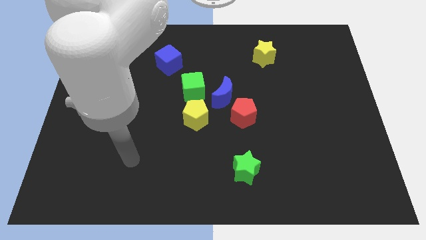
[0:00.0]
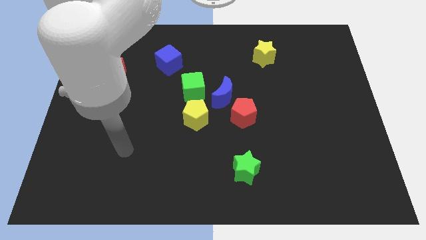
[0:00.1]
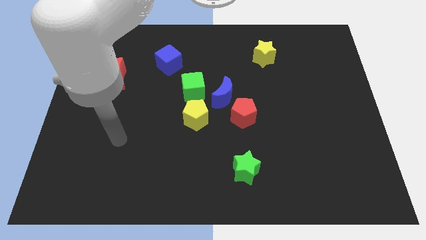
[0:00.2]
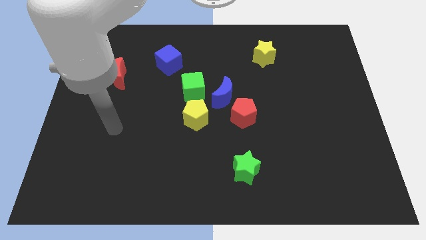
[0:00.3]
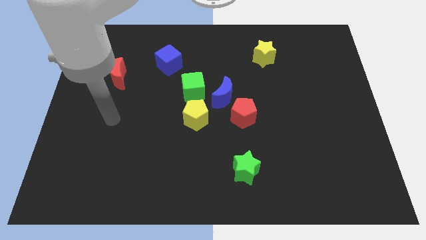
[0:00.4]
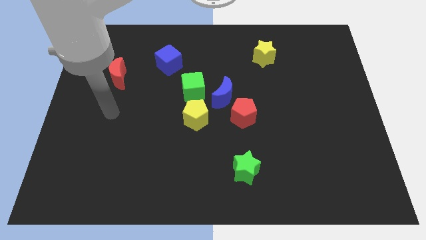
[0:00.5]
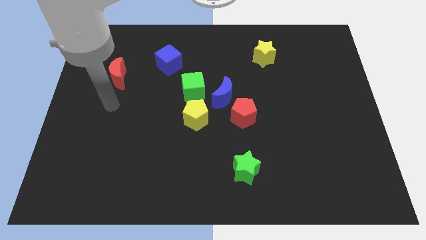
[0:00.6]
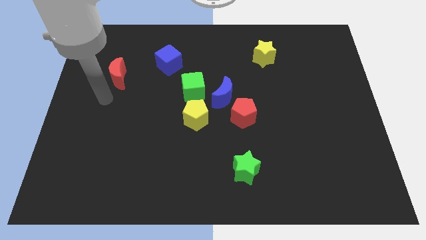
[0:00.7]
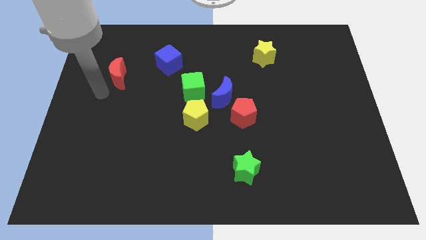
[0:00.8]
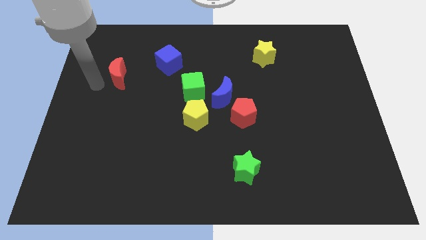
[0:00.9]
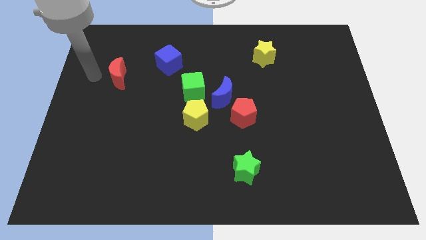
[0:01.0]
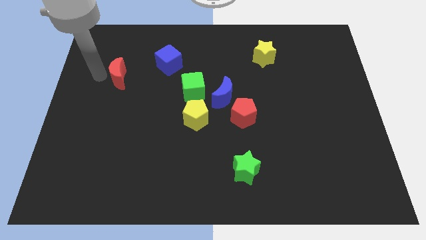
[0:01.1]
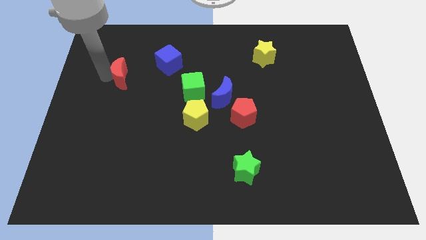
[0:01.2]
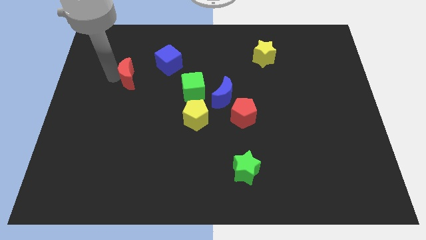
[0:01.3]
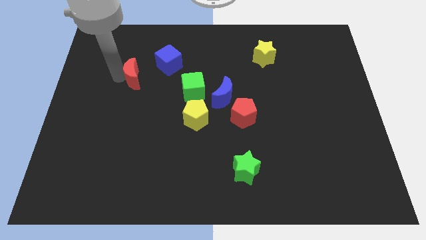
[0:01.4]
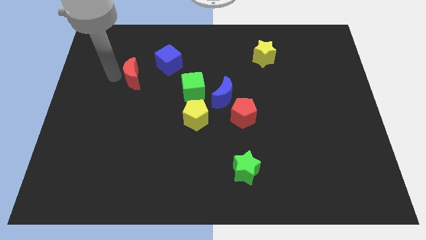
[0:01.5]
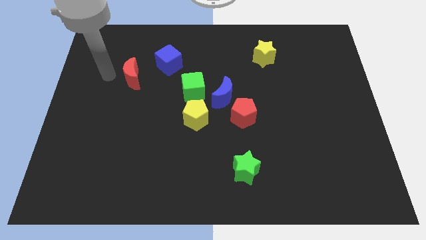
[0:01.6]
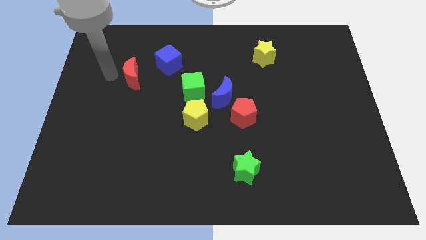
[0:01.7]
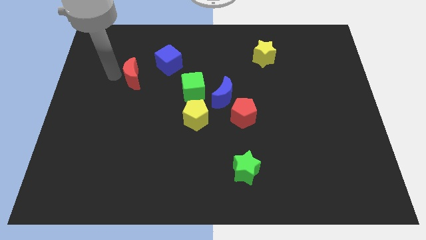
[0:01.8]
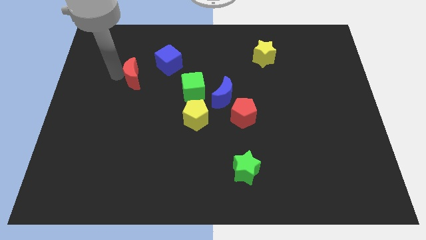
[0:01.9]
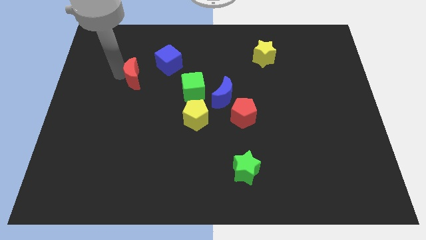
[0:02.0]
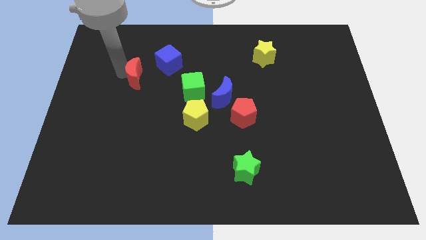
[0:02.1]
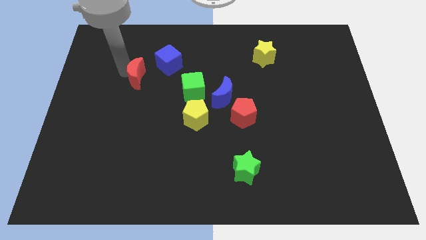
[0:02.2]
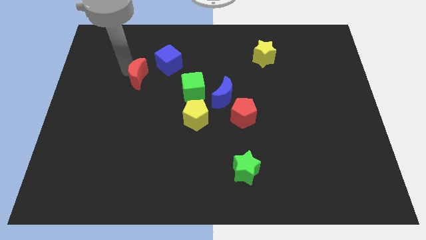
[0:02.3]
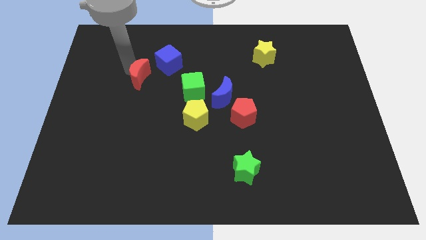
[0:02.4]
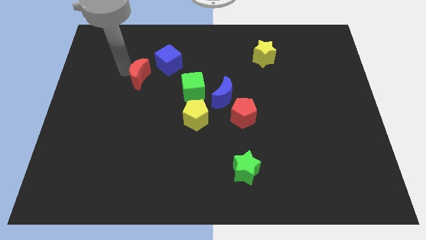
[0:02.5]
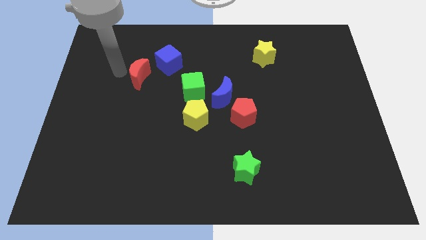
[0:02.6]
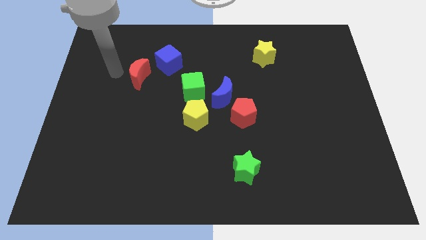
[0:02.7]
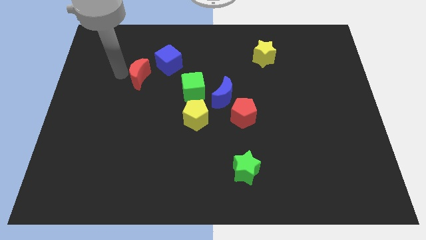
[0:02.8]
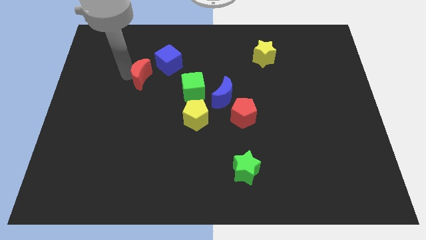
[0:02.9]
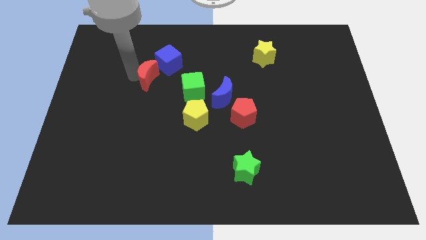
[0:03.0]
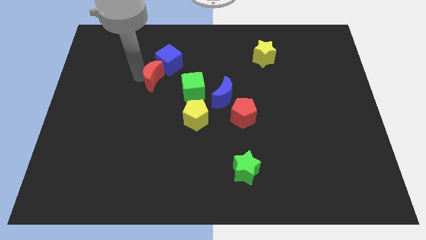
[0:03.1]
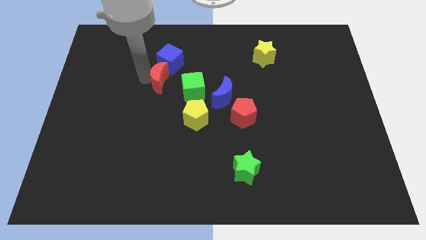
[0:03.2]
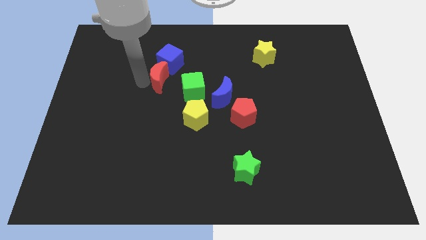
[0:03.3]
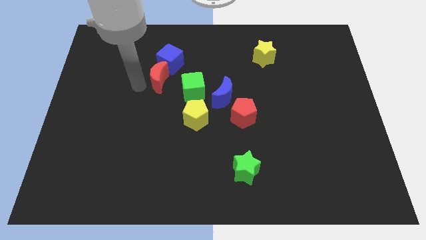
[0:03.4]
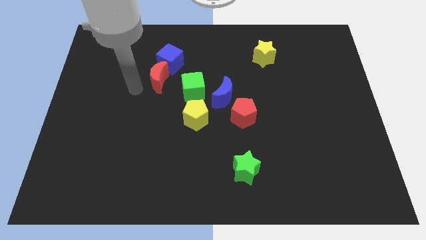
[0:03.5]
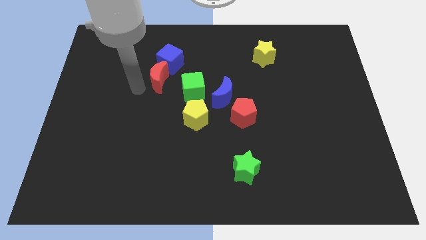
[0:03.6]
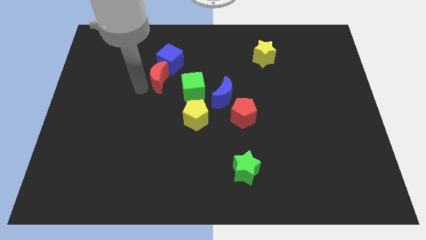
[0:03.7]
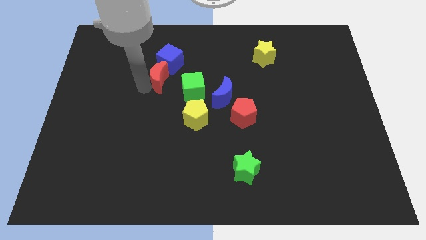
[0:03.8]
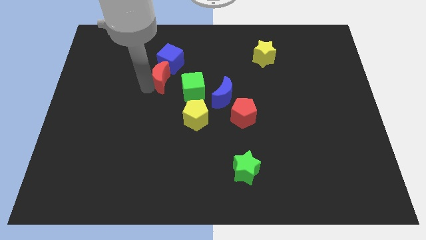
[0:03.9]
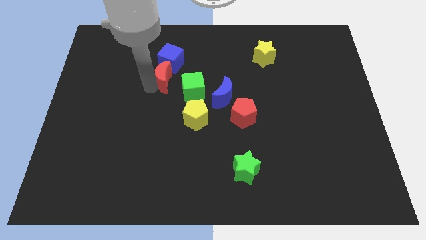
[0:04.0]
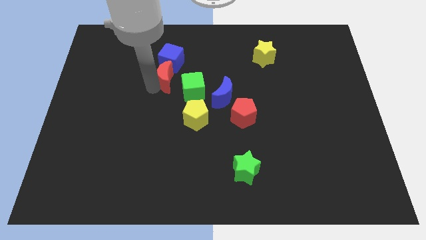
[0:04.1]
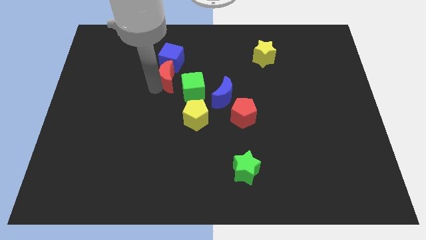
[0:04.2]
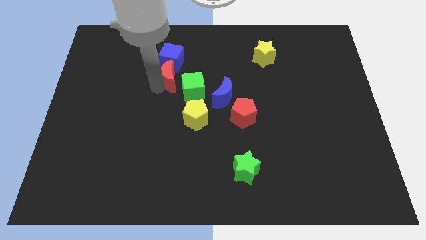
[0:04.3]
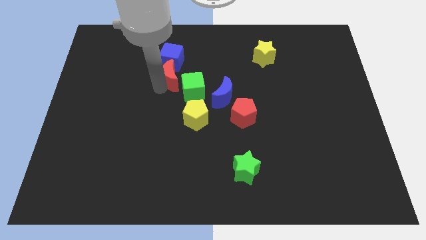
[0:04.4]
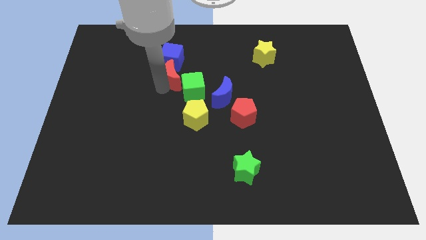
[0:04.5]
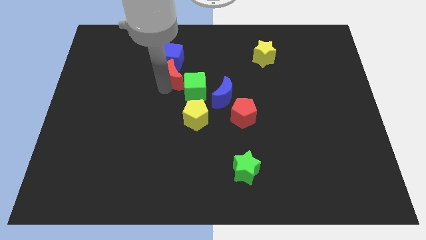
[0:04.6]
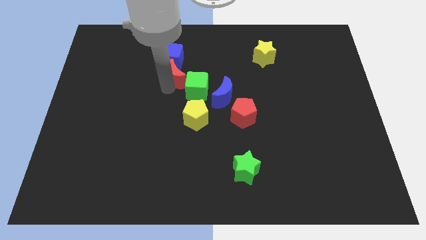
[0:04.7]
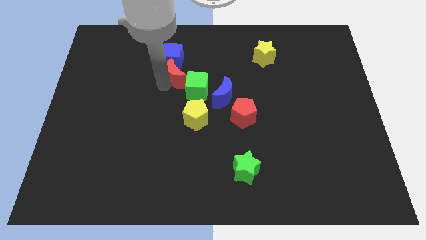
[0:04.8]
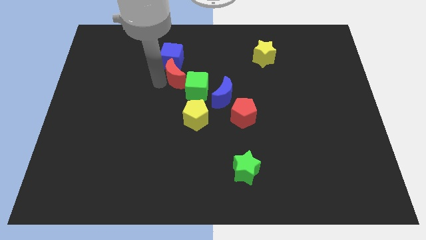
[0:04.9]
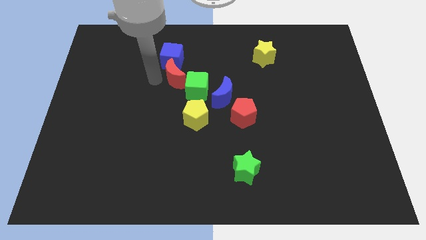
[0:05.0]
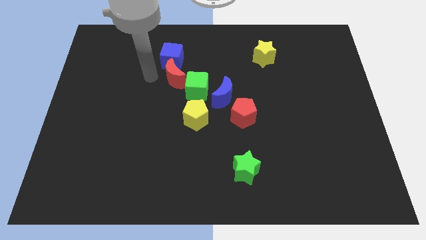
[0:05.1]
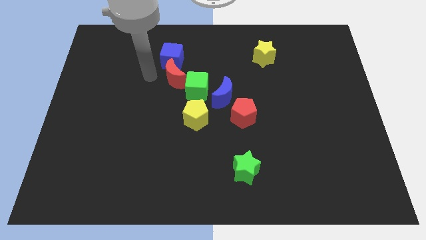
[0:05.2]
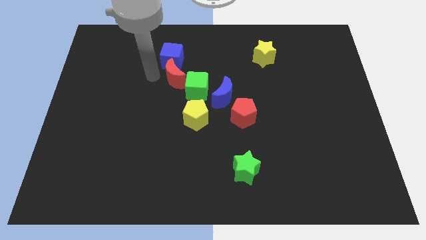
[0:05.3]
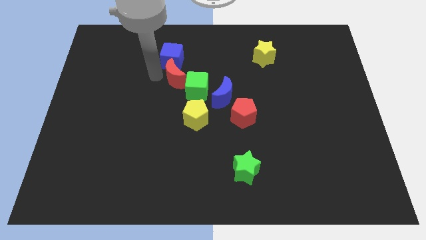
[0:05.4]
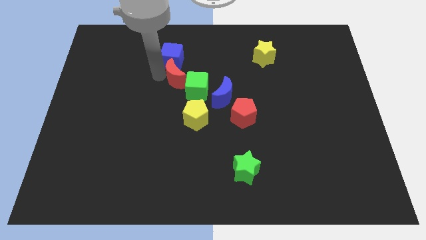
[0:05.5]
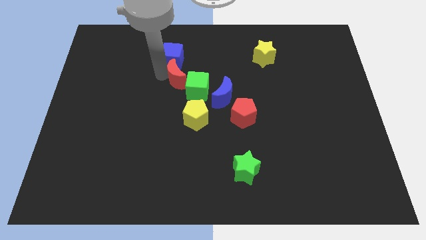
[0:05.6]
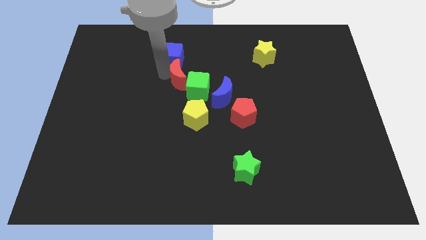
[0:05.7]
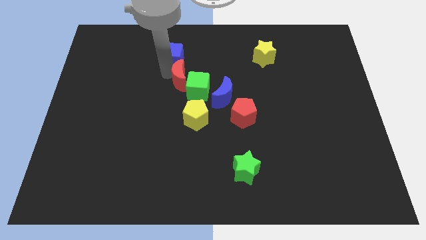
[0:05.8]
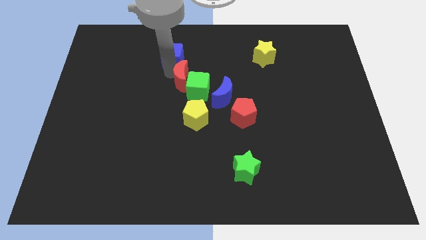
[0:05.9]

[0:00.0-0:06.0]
put the red moon to the top left of the blue moon
